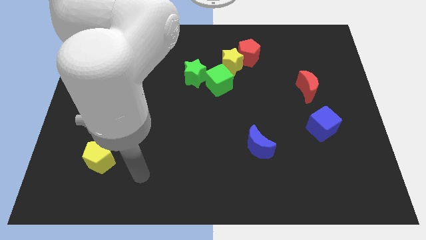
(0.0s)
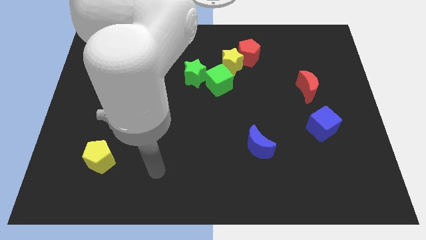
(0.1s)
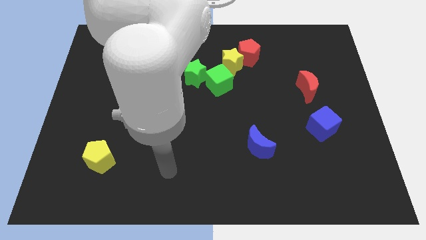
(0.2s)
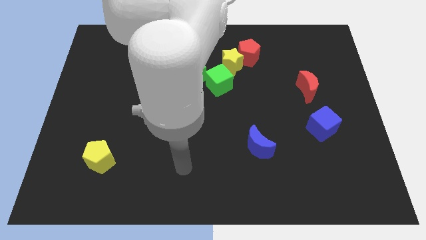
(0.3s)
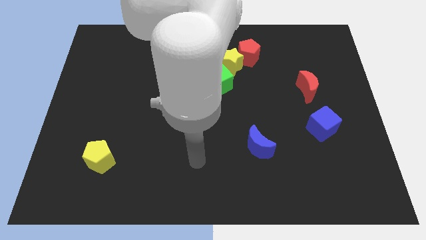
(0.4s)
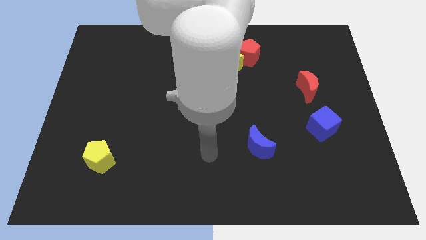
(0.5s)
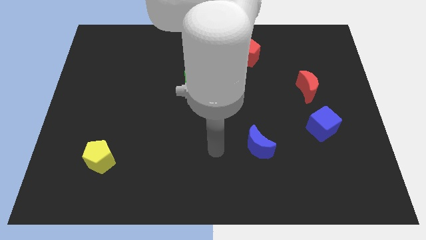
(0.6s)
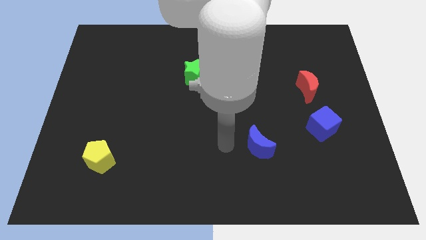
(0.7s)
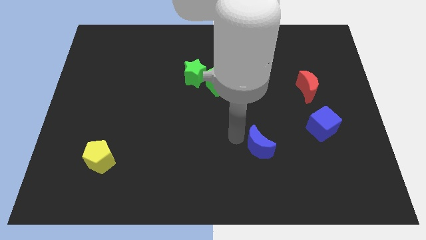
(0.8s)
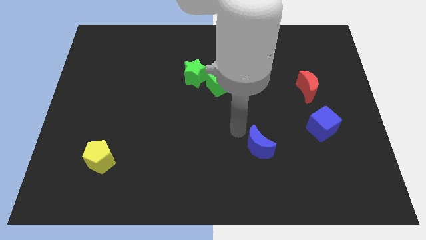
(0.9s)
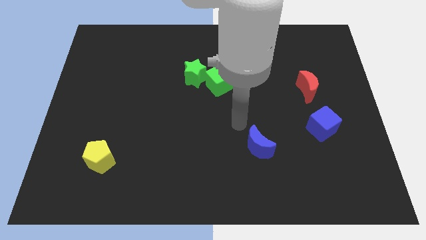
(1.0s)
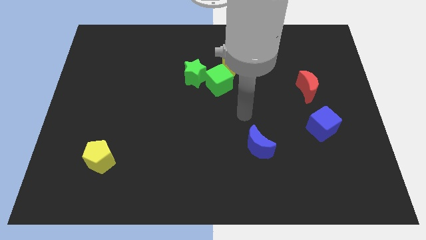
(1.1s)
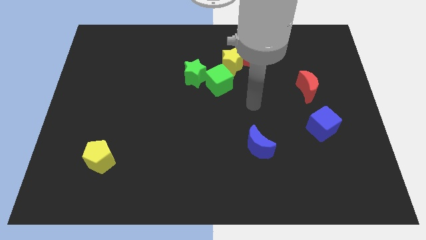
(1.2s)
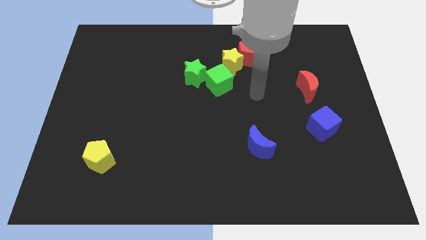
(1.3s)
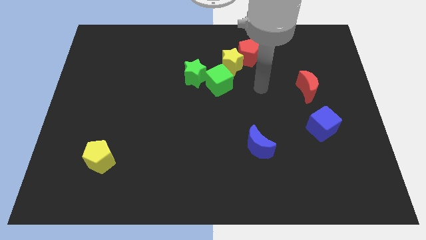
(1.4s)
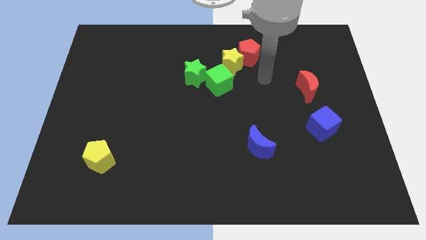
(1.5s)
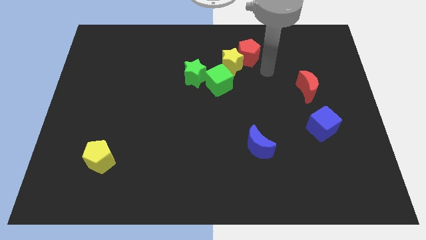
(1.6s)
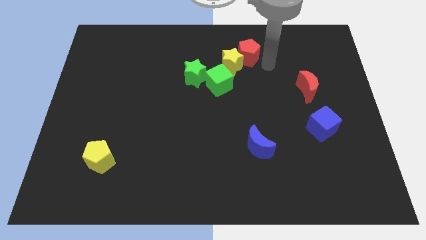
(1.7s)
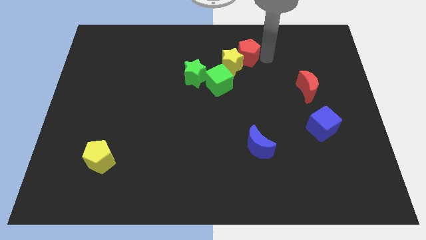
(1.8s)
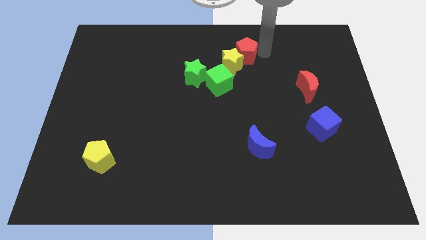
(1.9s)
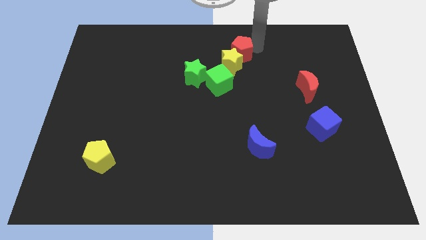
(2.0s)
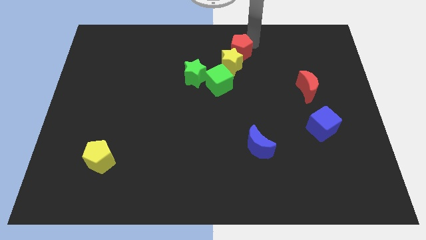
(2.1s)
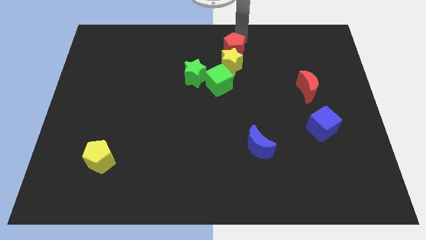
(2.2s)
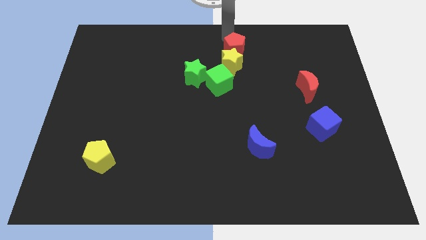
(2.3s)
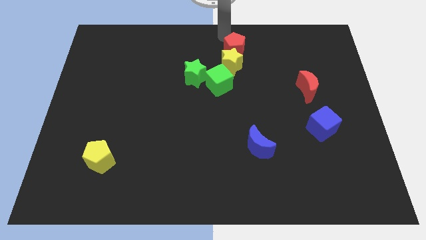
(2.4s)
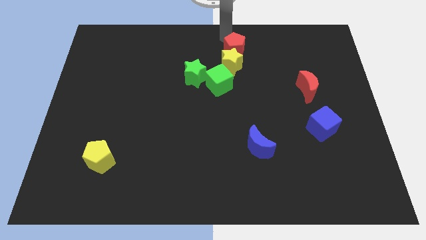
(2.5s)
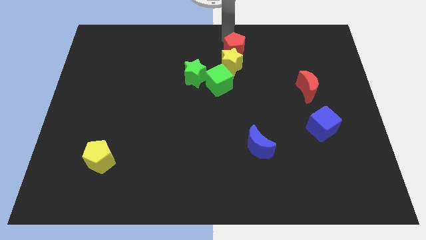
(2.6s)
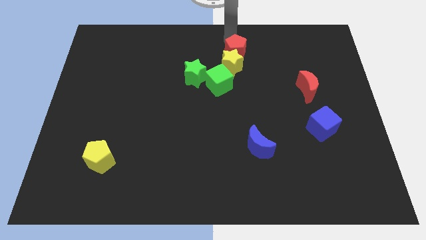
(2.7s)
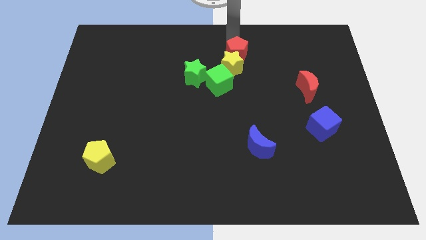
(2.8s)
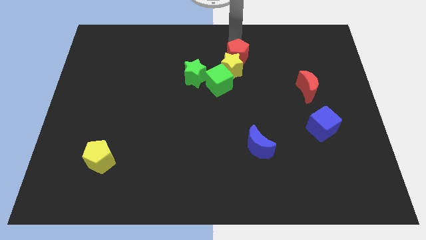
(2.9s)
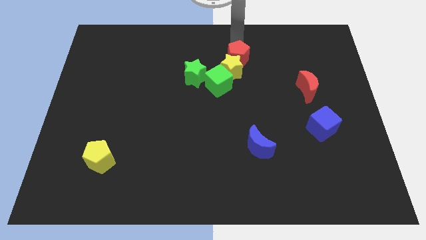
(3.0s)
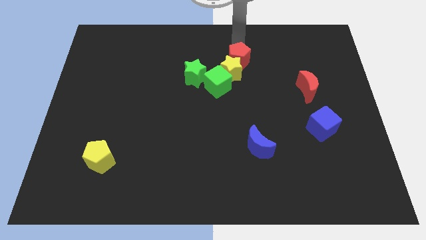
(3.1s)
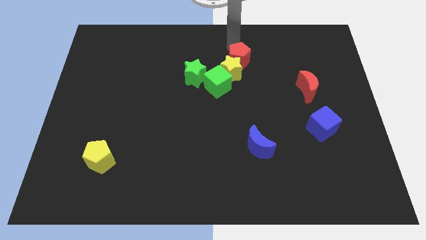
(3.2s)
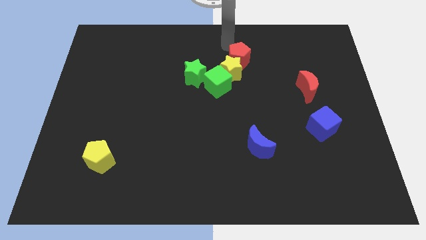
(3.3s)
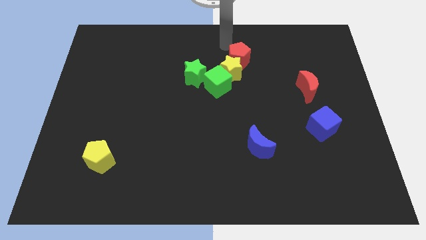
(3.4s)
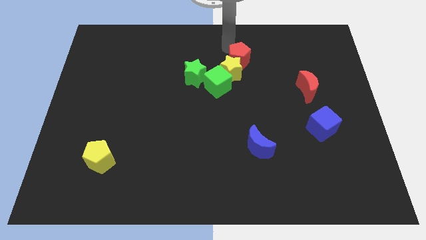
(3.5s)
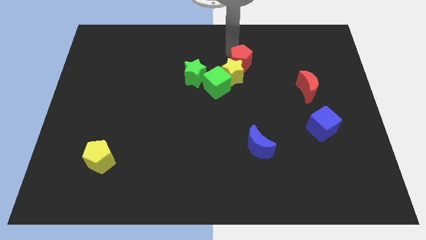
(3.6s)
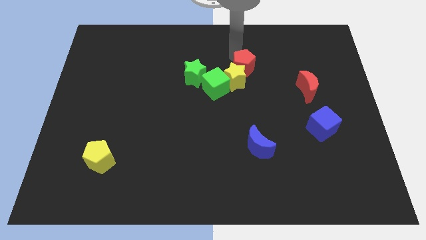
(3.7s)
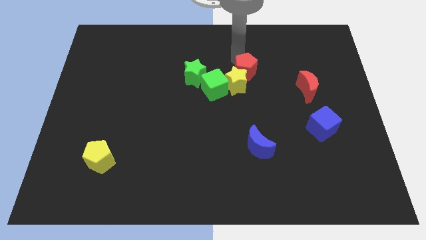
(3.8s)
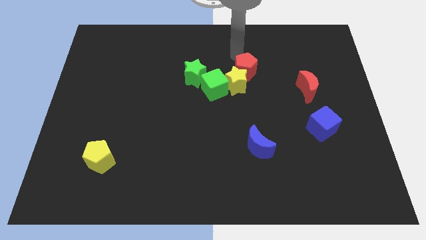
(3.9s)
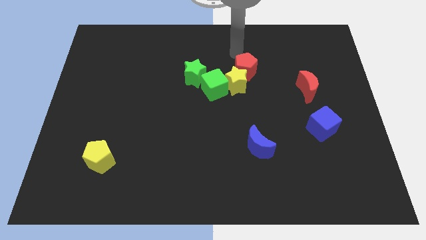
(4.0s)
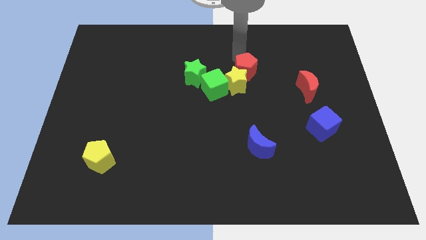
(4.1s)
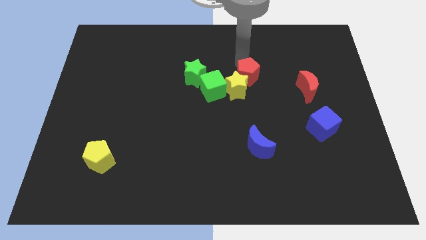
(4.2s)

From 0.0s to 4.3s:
slightly push the red pentagon downwards

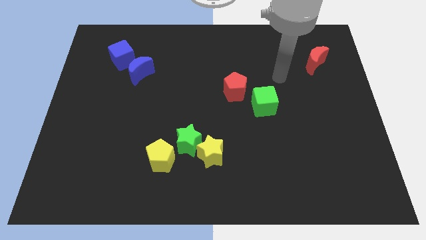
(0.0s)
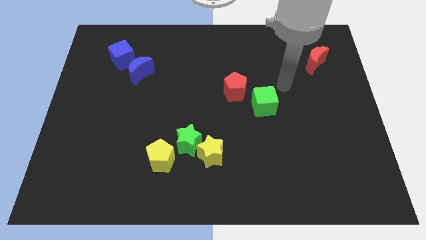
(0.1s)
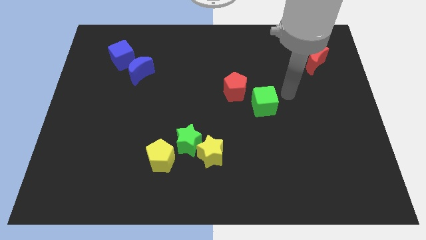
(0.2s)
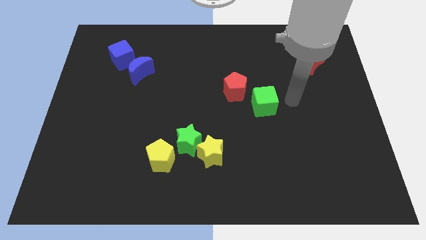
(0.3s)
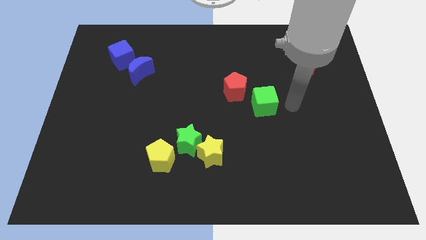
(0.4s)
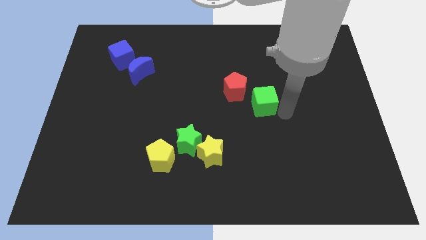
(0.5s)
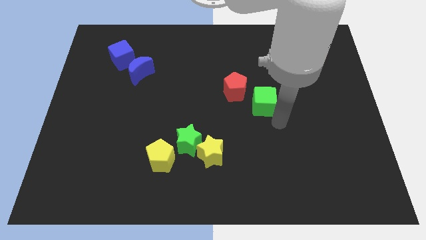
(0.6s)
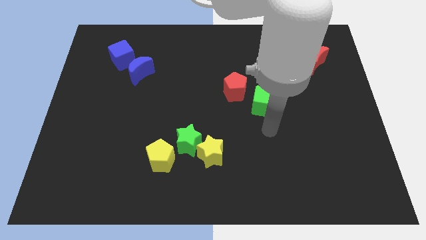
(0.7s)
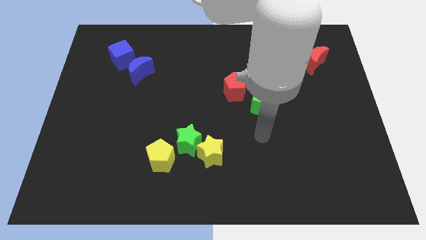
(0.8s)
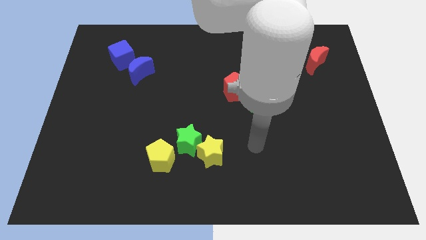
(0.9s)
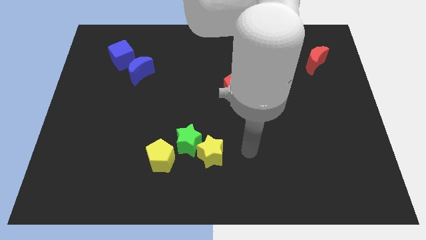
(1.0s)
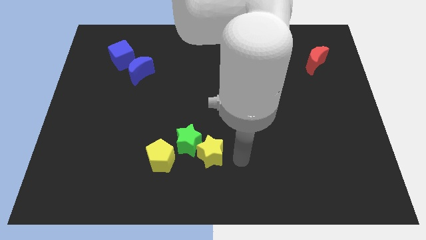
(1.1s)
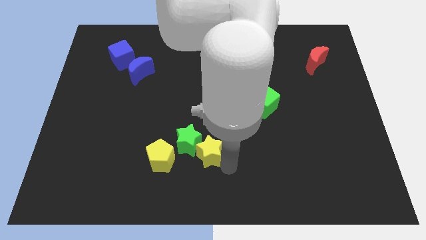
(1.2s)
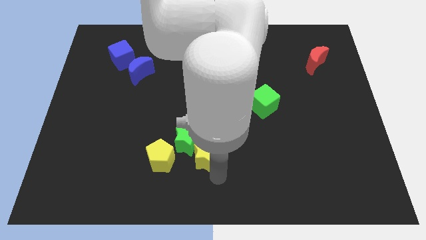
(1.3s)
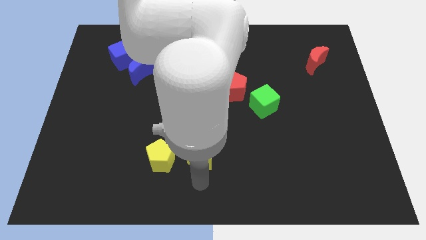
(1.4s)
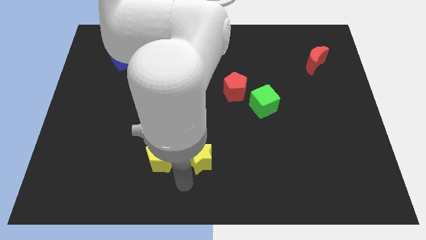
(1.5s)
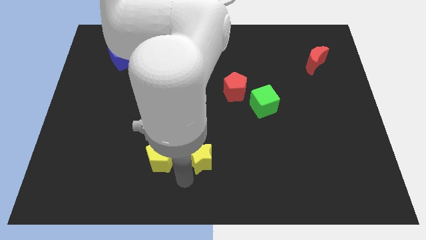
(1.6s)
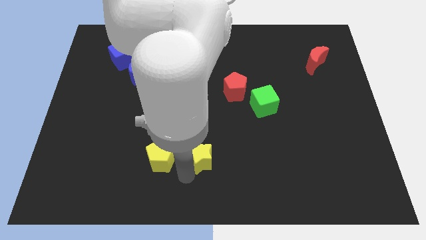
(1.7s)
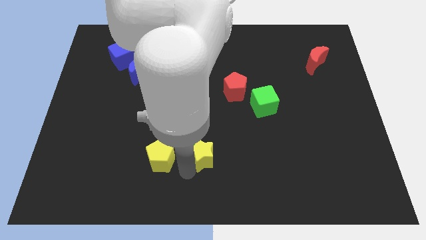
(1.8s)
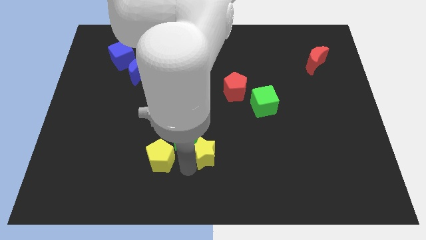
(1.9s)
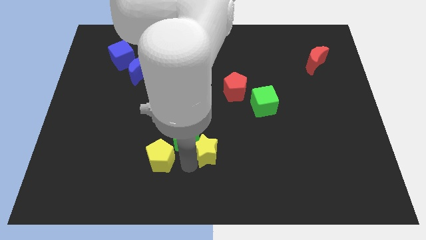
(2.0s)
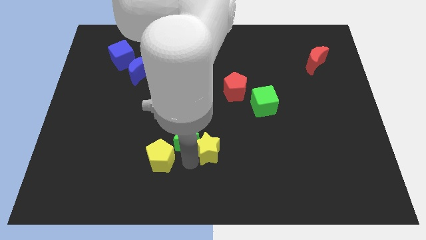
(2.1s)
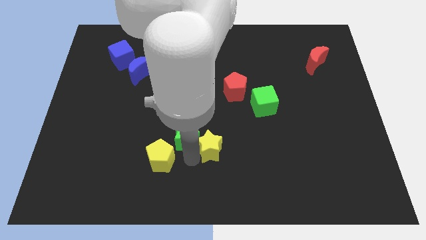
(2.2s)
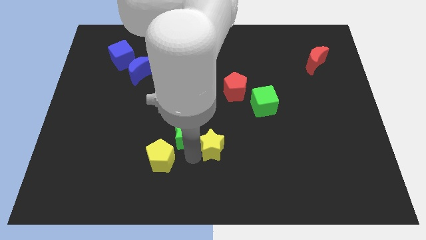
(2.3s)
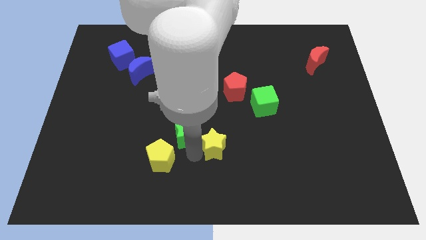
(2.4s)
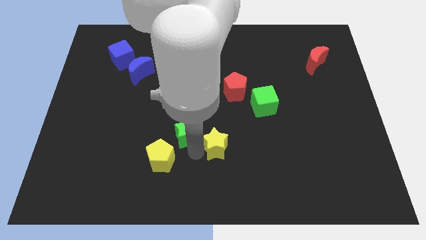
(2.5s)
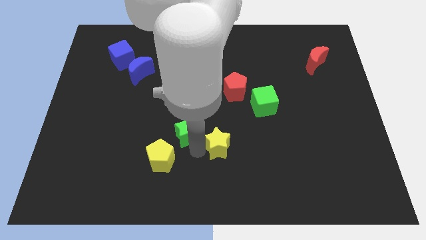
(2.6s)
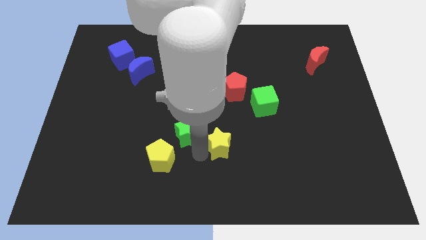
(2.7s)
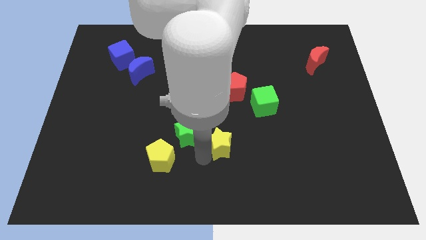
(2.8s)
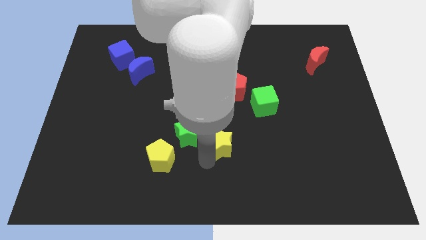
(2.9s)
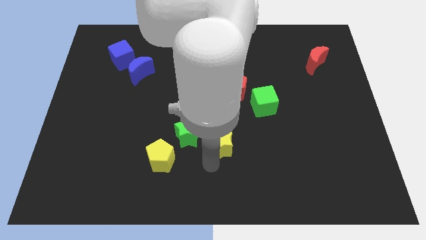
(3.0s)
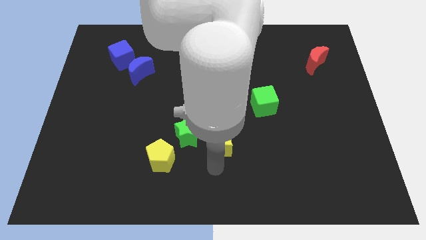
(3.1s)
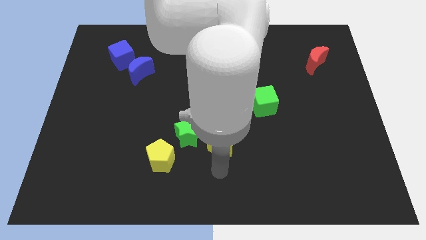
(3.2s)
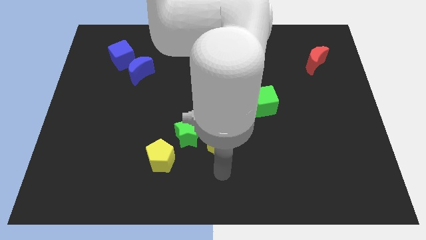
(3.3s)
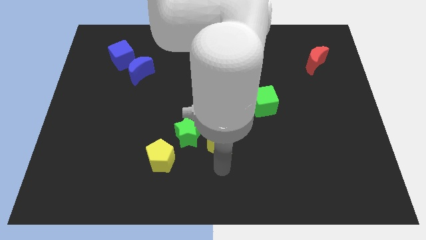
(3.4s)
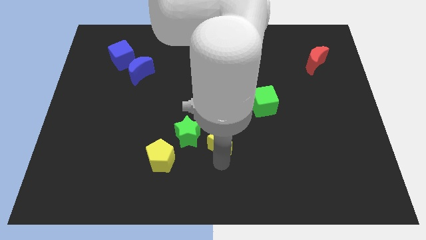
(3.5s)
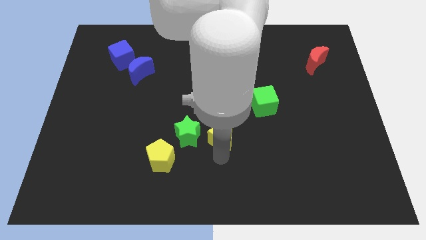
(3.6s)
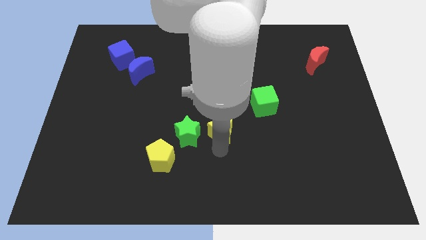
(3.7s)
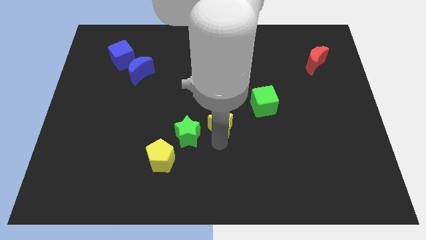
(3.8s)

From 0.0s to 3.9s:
slightly slide the yellow star up
